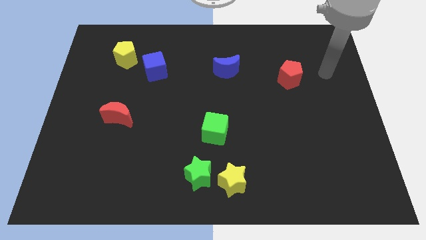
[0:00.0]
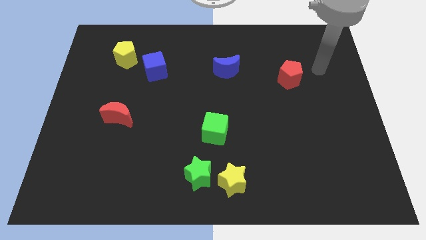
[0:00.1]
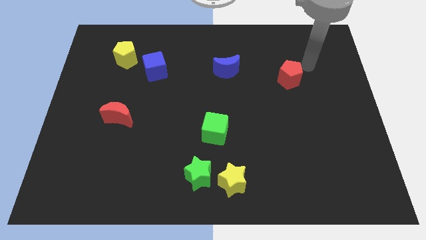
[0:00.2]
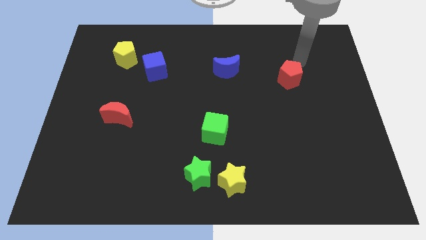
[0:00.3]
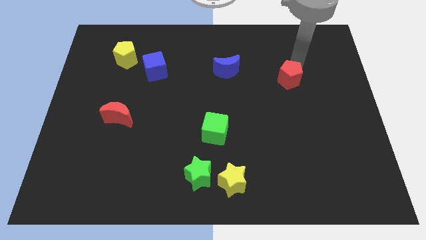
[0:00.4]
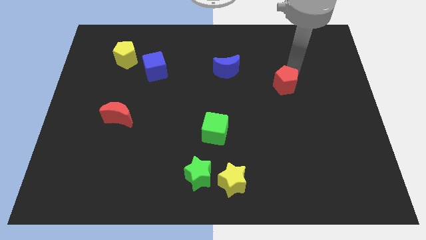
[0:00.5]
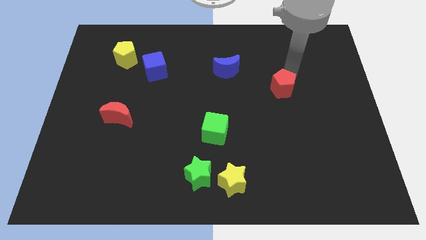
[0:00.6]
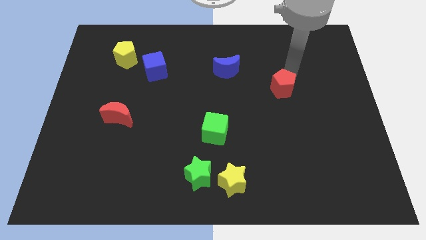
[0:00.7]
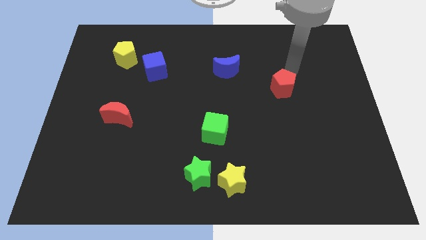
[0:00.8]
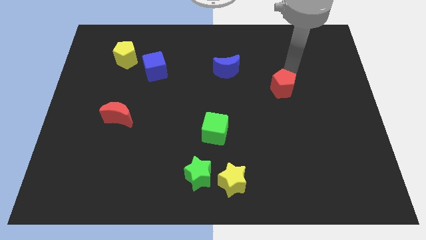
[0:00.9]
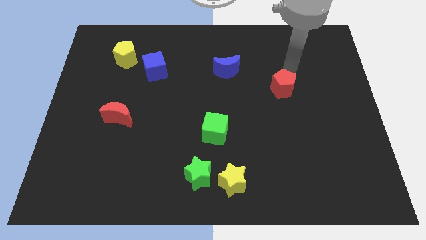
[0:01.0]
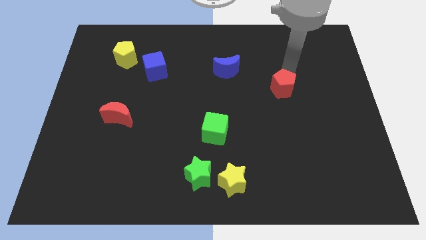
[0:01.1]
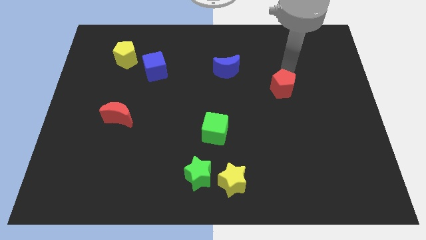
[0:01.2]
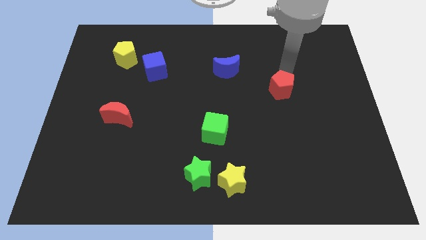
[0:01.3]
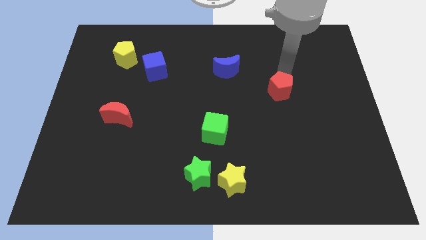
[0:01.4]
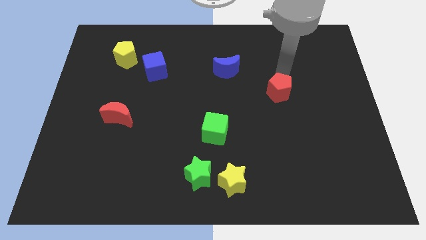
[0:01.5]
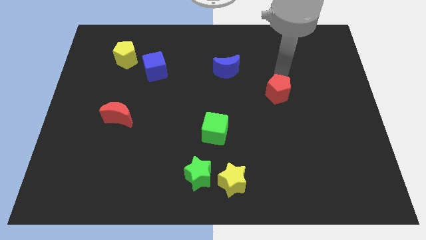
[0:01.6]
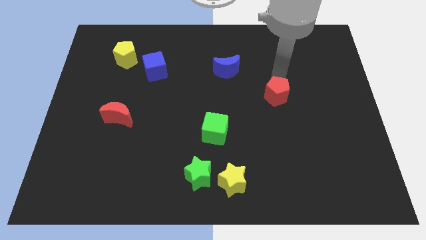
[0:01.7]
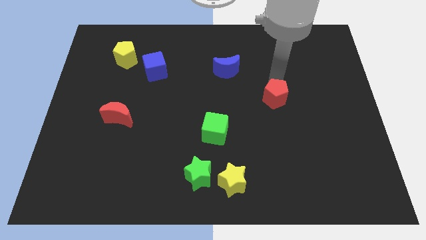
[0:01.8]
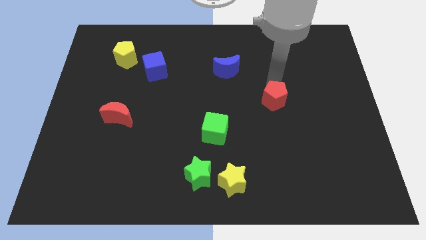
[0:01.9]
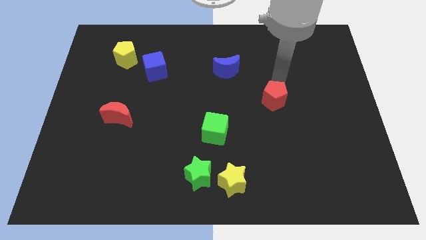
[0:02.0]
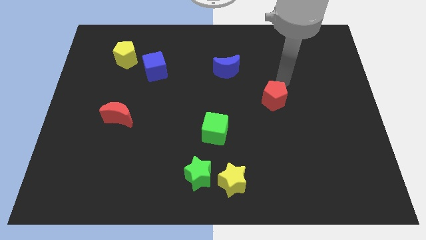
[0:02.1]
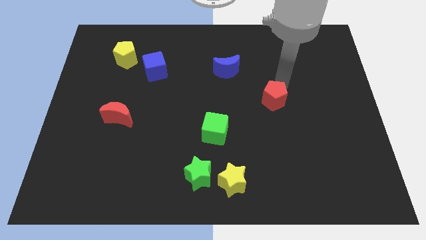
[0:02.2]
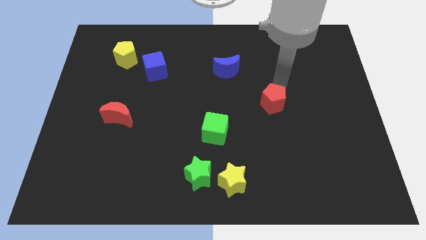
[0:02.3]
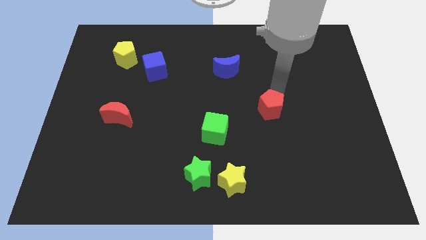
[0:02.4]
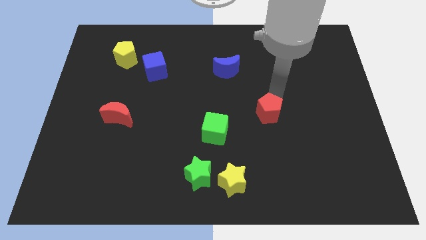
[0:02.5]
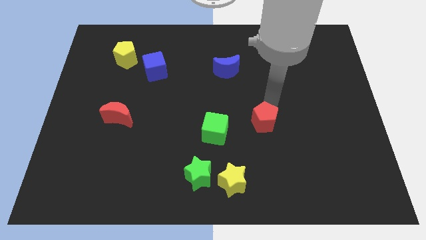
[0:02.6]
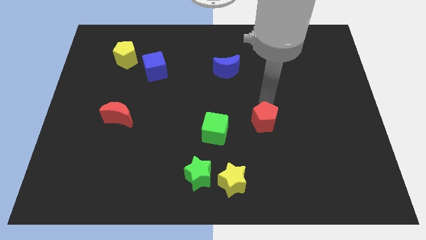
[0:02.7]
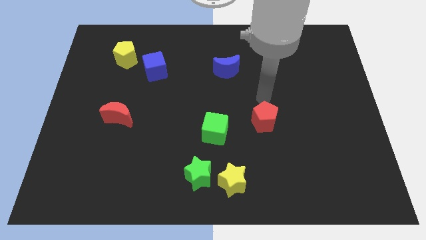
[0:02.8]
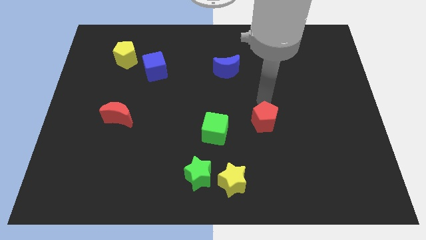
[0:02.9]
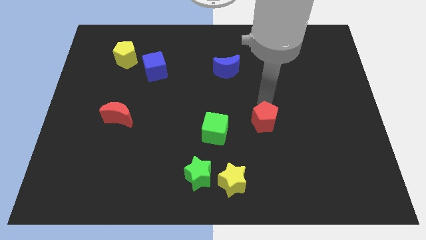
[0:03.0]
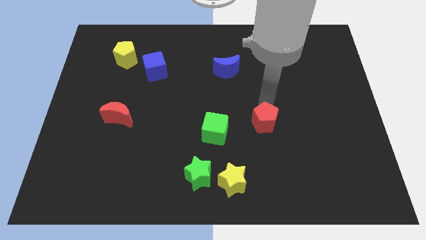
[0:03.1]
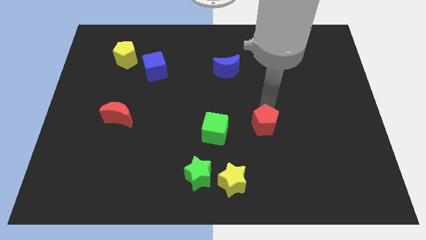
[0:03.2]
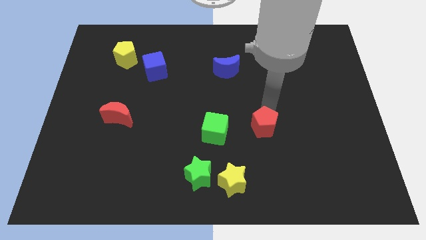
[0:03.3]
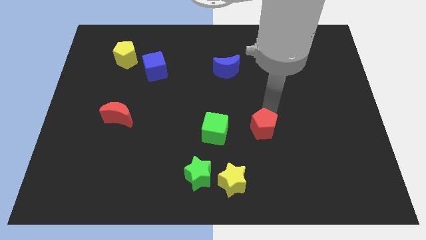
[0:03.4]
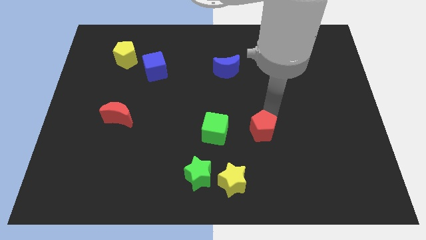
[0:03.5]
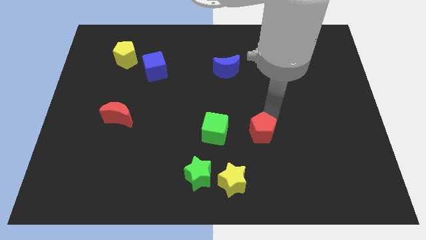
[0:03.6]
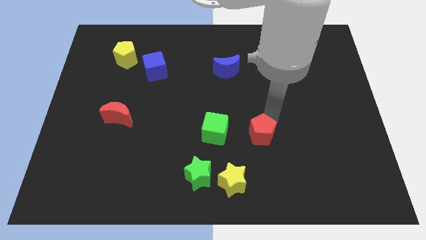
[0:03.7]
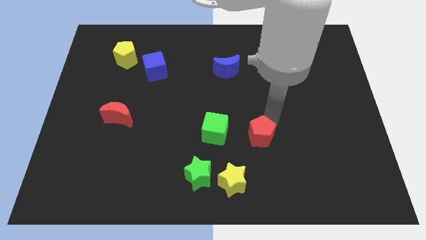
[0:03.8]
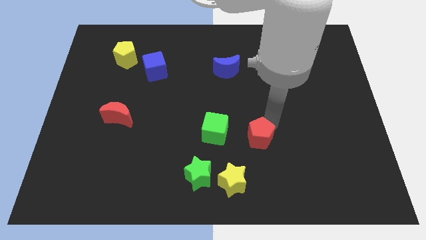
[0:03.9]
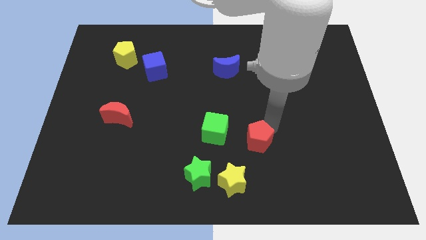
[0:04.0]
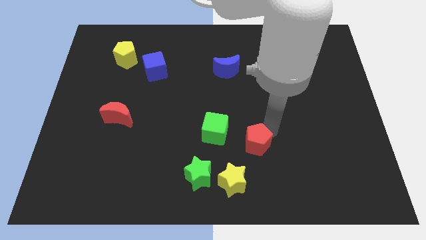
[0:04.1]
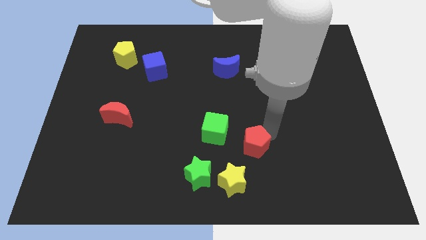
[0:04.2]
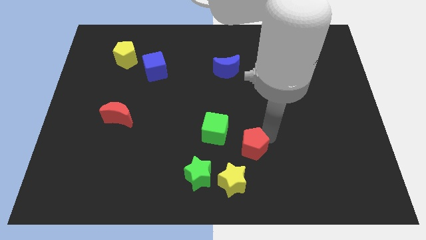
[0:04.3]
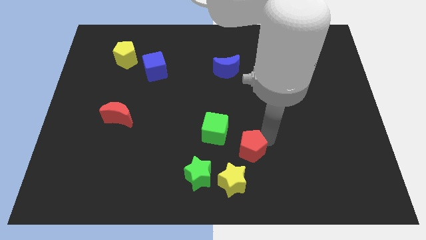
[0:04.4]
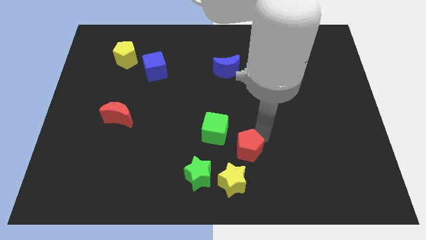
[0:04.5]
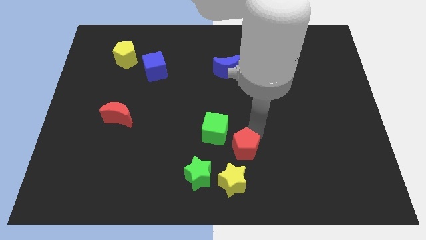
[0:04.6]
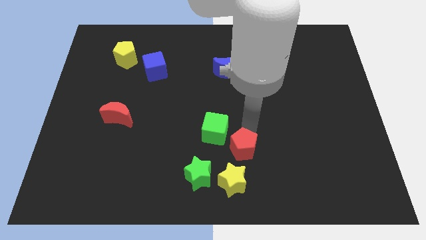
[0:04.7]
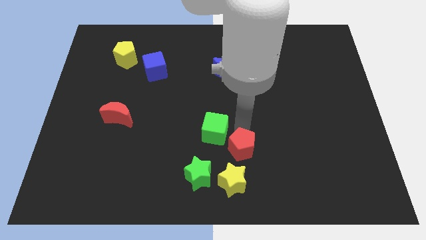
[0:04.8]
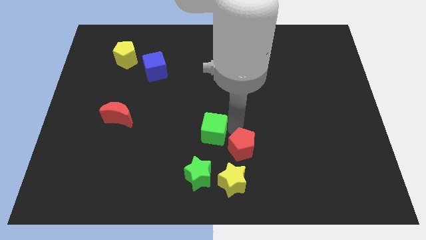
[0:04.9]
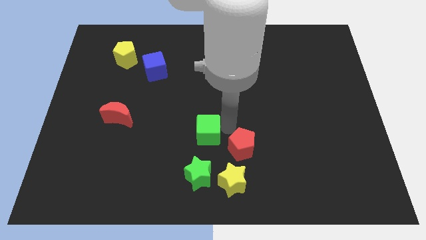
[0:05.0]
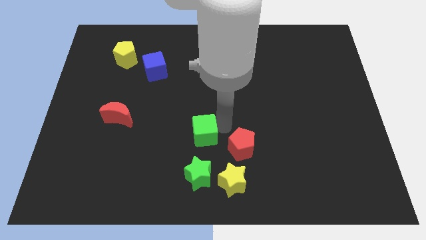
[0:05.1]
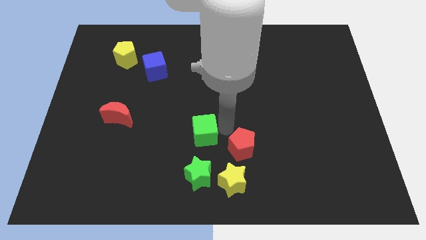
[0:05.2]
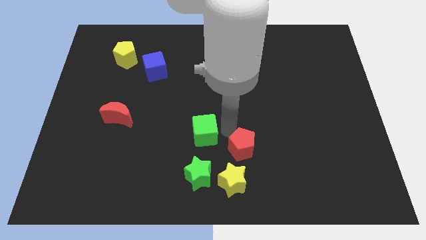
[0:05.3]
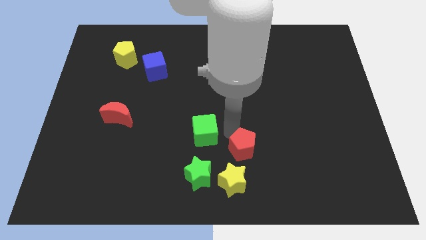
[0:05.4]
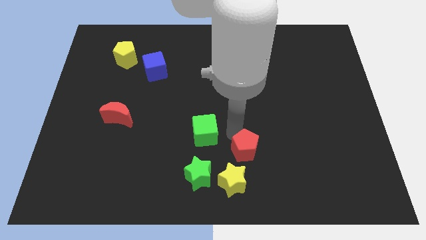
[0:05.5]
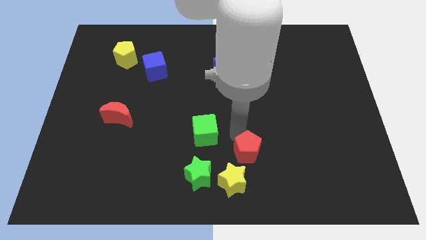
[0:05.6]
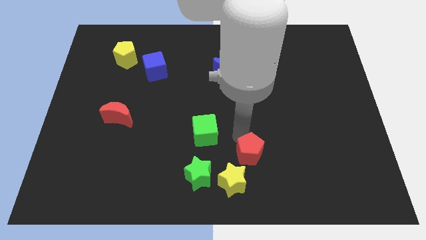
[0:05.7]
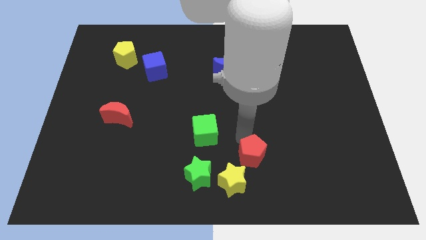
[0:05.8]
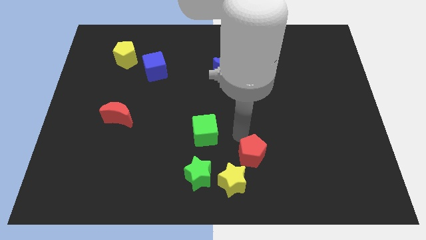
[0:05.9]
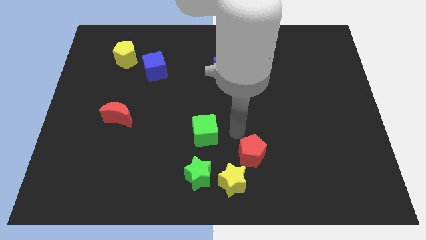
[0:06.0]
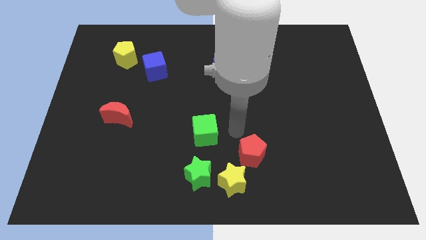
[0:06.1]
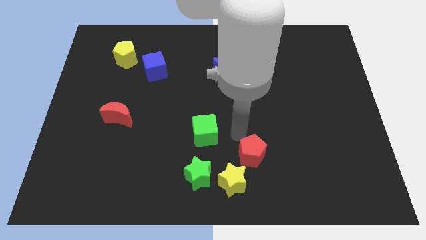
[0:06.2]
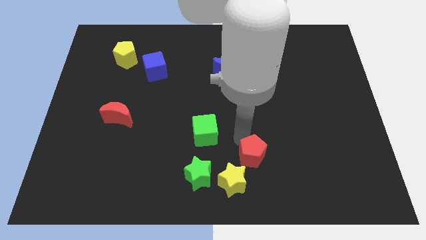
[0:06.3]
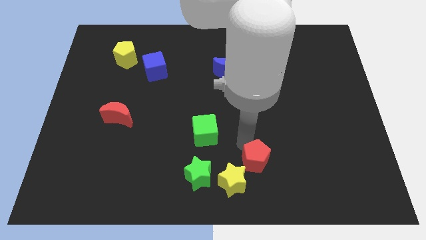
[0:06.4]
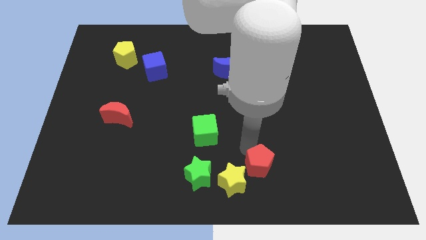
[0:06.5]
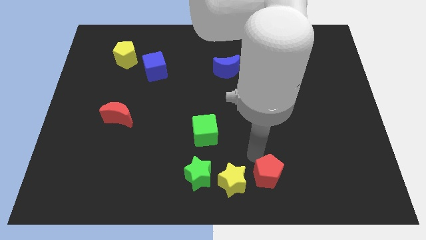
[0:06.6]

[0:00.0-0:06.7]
slide the red pentagon to the bottom side
